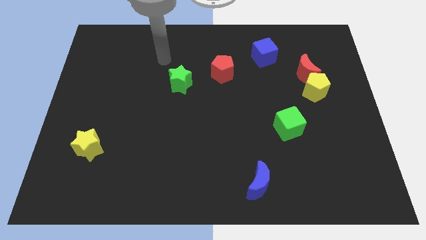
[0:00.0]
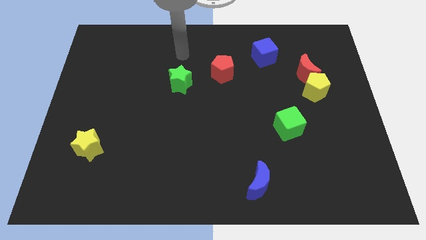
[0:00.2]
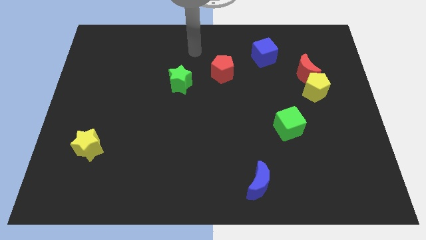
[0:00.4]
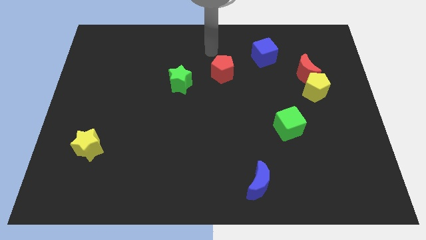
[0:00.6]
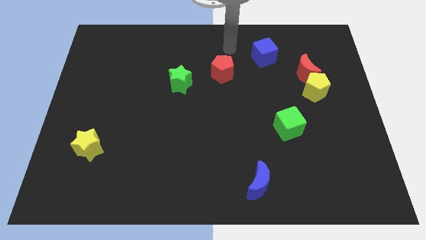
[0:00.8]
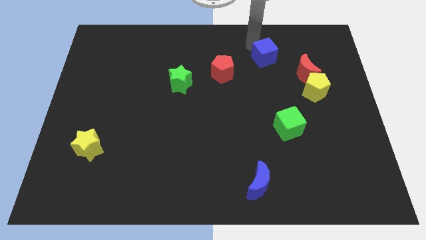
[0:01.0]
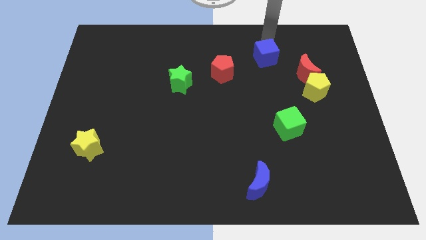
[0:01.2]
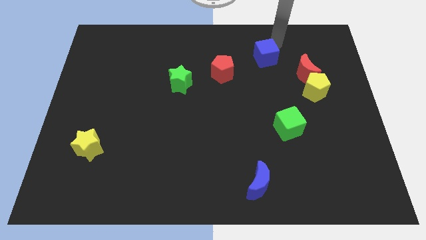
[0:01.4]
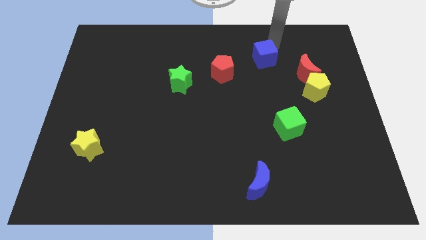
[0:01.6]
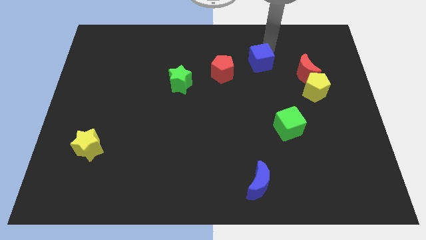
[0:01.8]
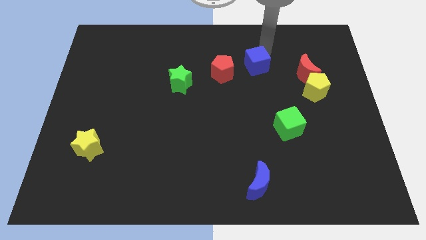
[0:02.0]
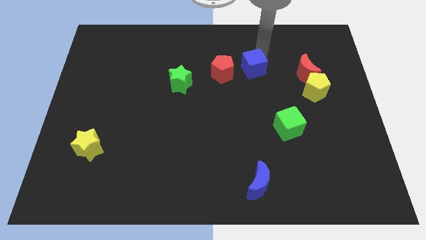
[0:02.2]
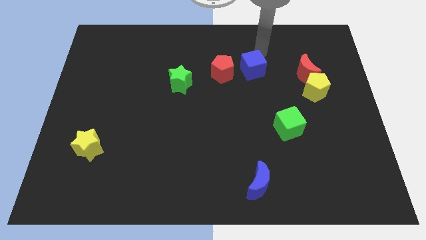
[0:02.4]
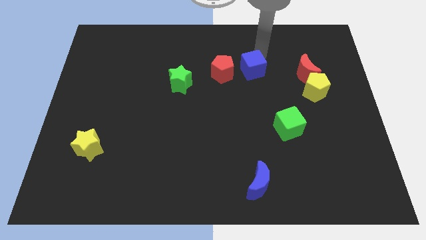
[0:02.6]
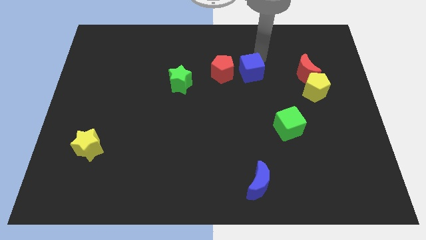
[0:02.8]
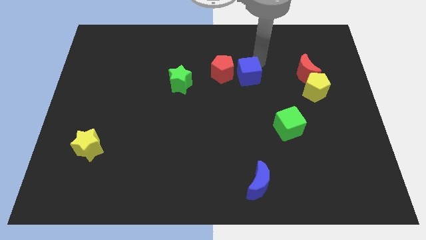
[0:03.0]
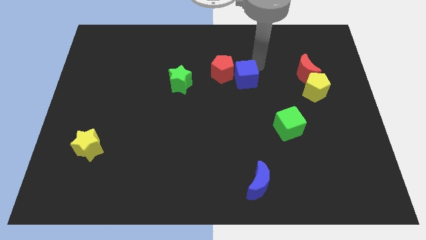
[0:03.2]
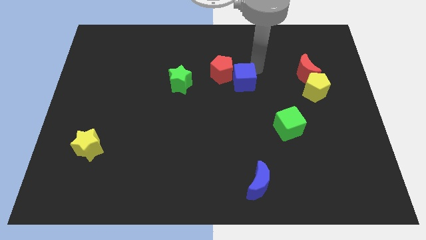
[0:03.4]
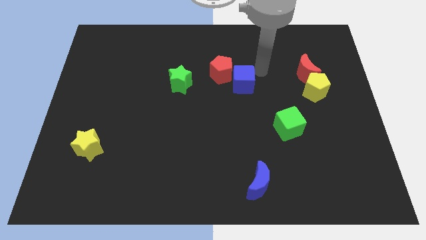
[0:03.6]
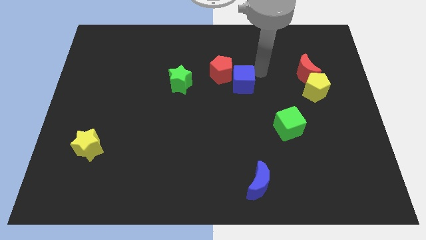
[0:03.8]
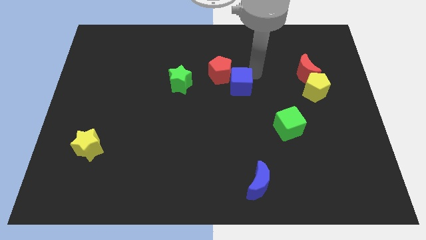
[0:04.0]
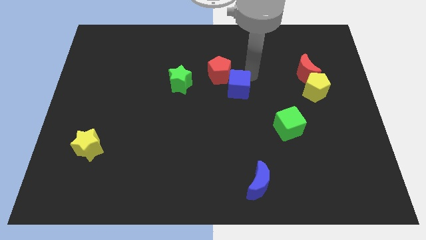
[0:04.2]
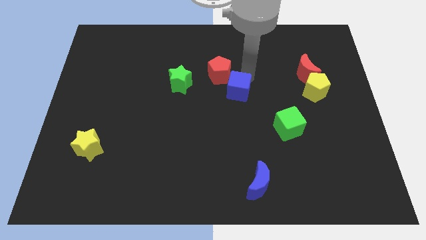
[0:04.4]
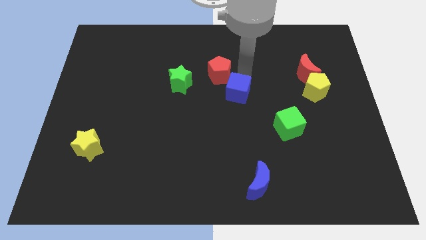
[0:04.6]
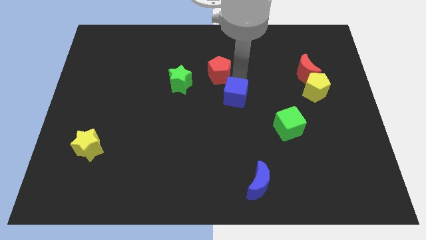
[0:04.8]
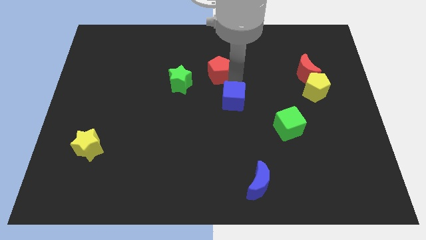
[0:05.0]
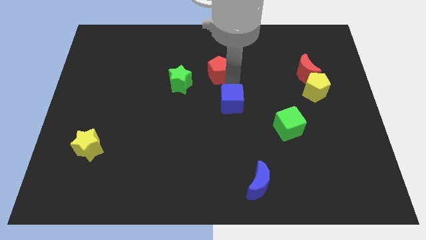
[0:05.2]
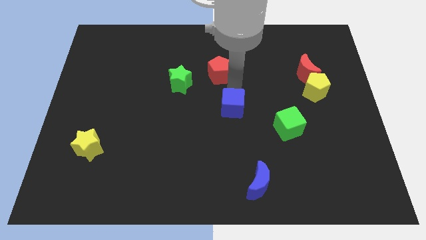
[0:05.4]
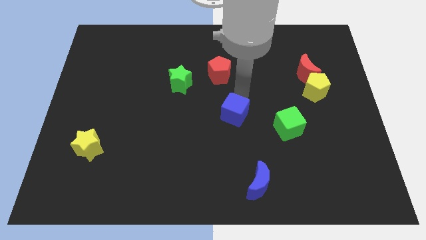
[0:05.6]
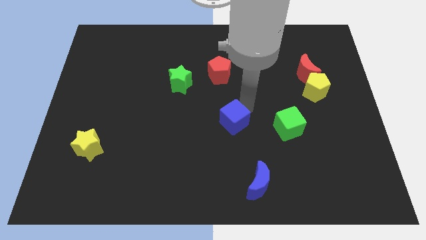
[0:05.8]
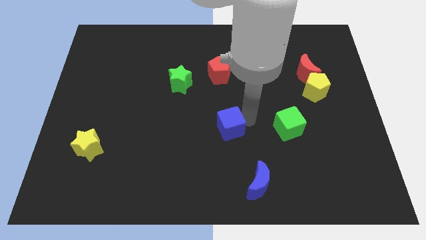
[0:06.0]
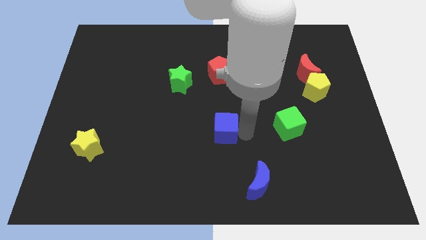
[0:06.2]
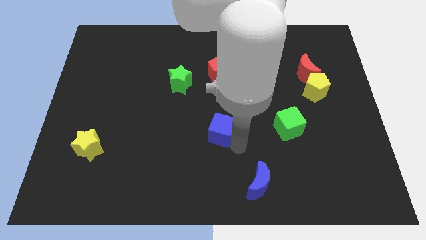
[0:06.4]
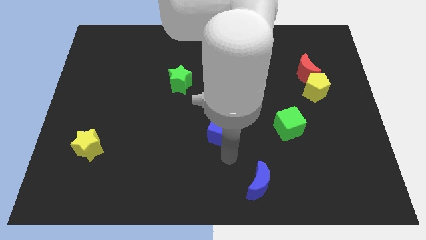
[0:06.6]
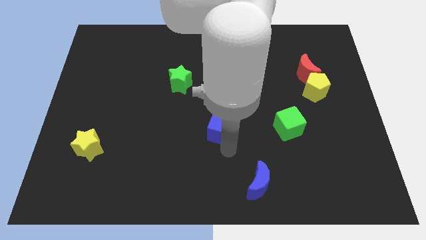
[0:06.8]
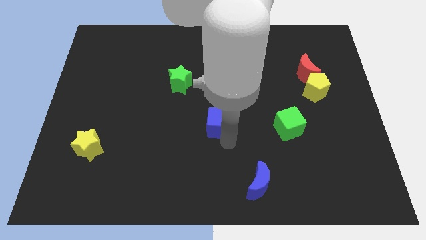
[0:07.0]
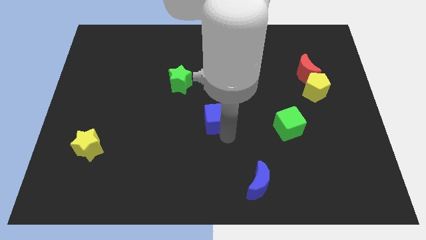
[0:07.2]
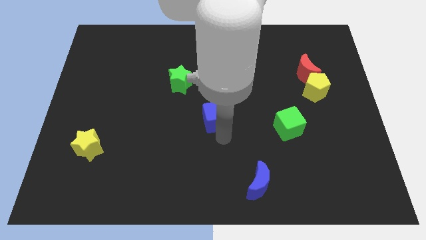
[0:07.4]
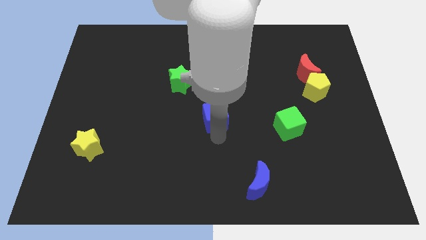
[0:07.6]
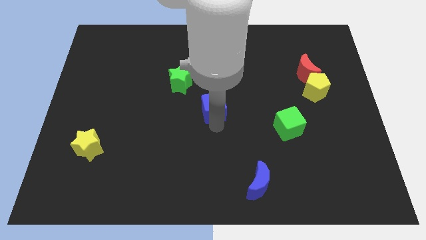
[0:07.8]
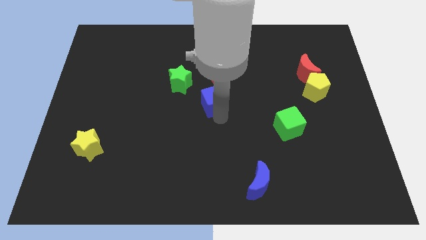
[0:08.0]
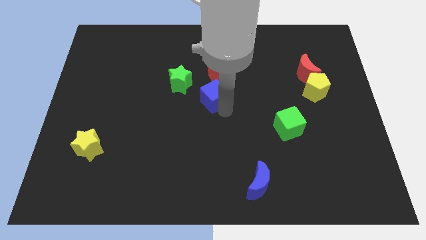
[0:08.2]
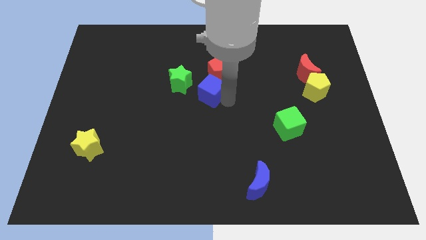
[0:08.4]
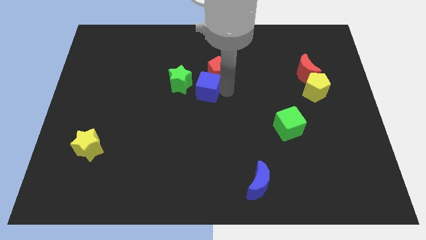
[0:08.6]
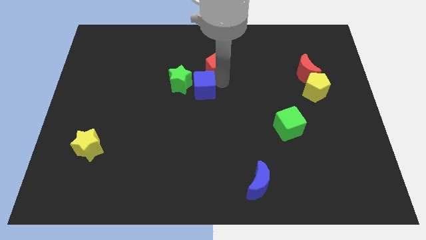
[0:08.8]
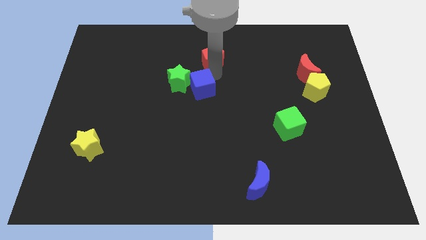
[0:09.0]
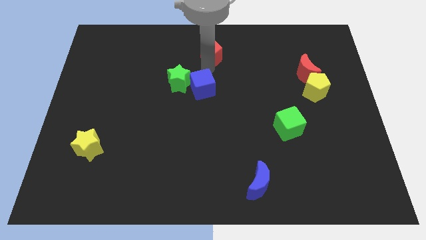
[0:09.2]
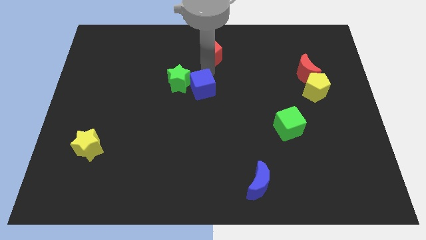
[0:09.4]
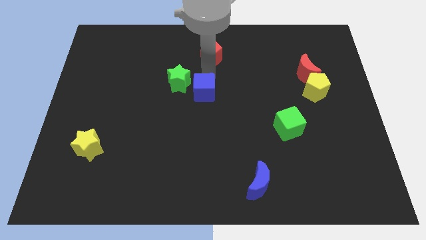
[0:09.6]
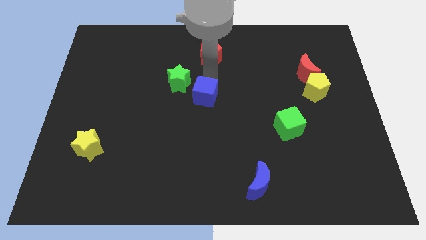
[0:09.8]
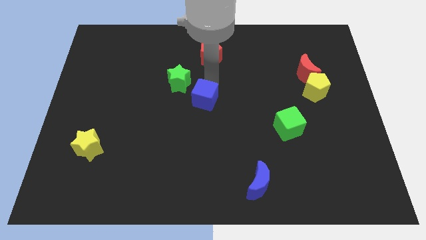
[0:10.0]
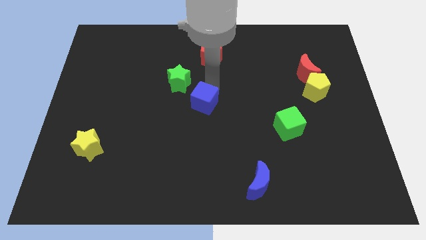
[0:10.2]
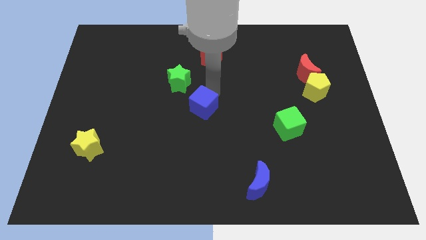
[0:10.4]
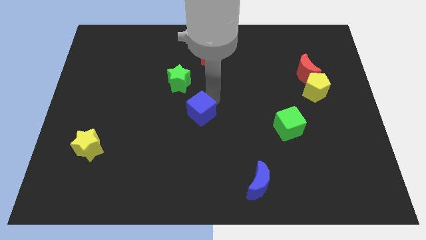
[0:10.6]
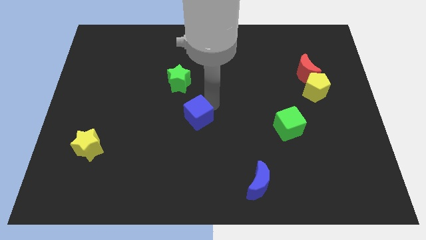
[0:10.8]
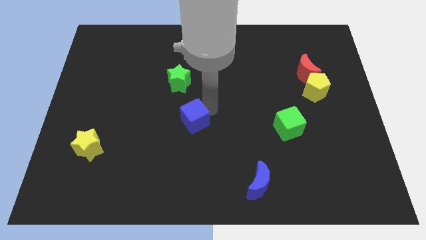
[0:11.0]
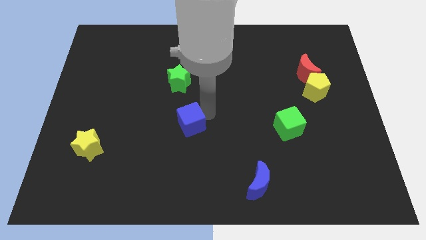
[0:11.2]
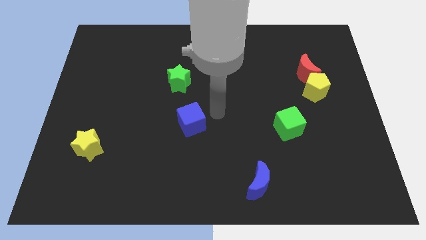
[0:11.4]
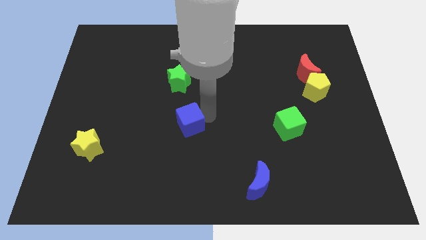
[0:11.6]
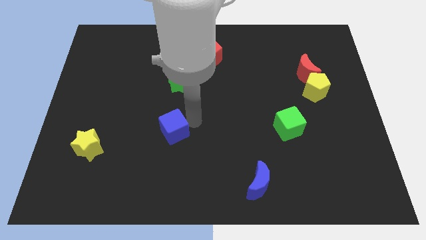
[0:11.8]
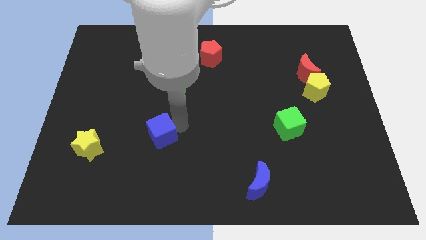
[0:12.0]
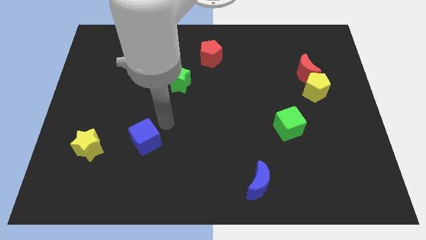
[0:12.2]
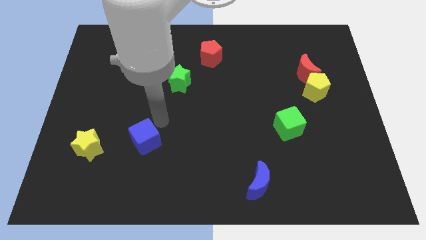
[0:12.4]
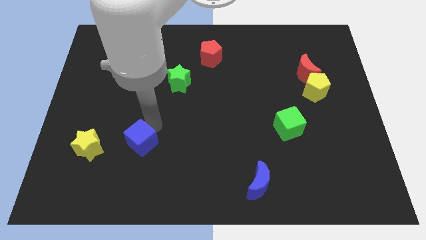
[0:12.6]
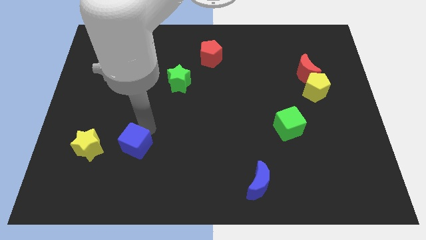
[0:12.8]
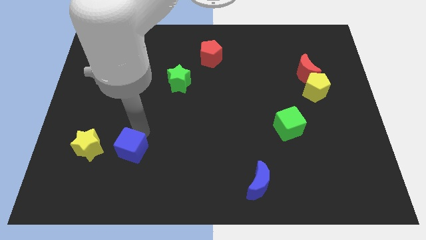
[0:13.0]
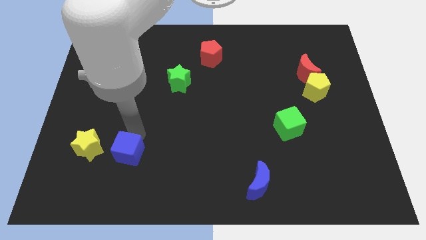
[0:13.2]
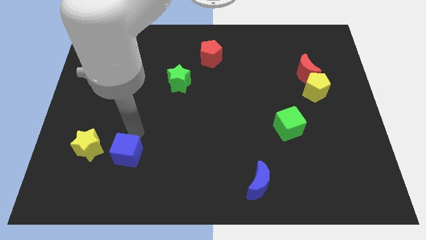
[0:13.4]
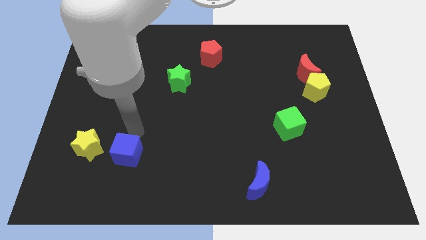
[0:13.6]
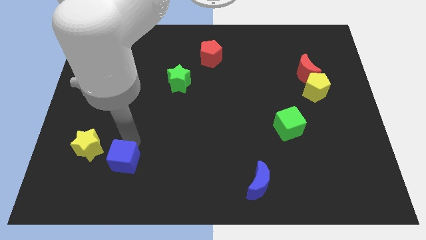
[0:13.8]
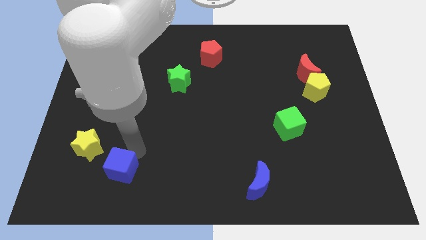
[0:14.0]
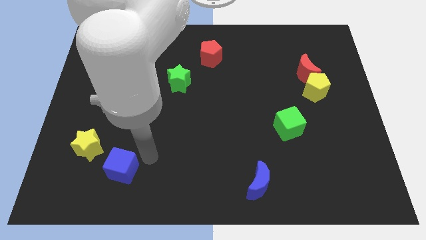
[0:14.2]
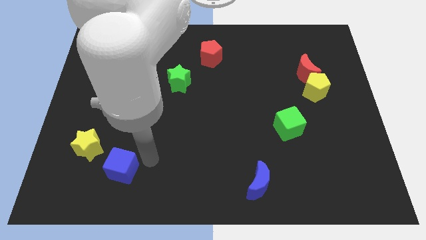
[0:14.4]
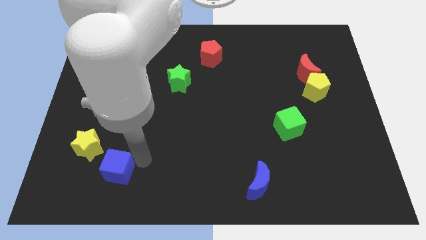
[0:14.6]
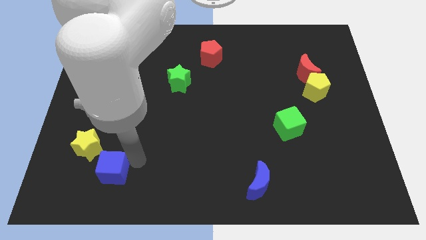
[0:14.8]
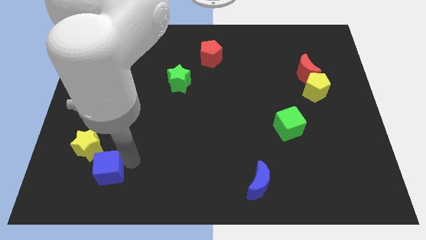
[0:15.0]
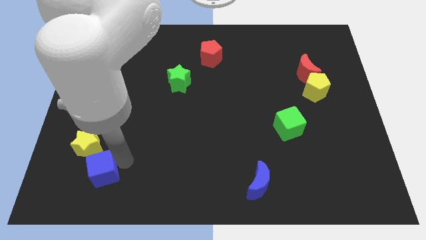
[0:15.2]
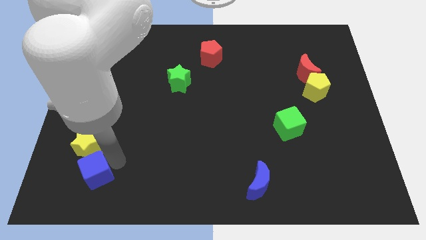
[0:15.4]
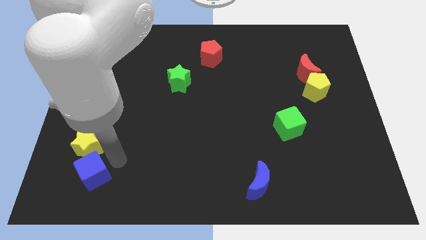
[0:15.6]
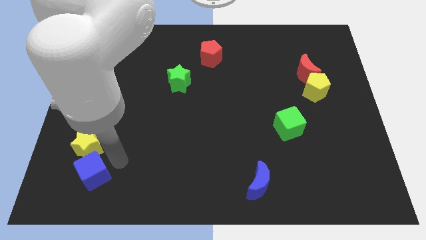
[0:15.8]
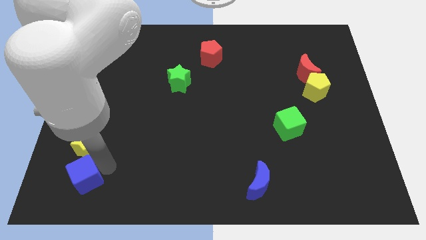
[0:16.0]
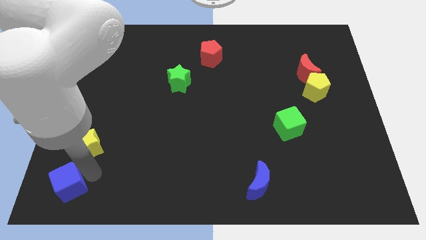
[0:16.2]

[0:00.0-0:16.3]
push the blue cube to the bottom left corner
